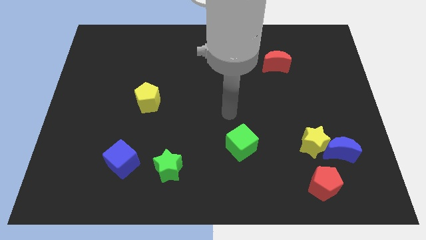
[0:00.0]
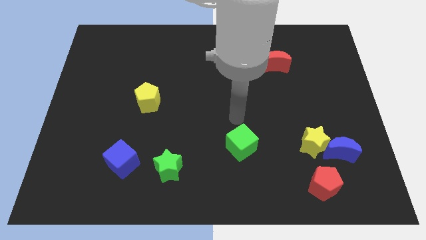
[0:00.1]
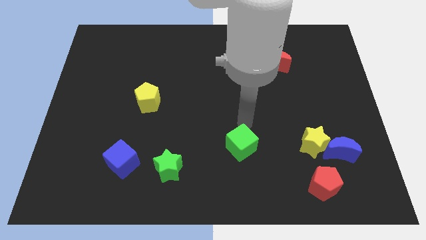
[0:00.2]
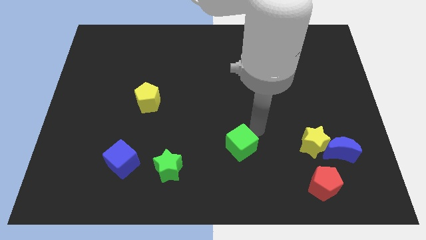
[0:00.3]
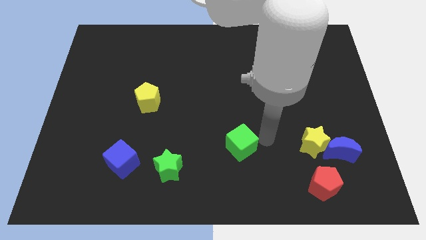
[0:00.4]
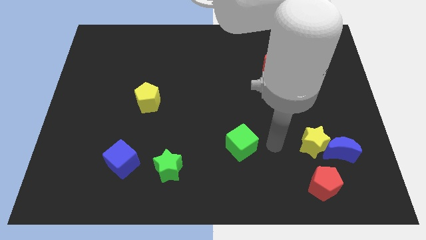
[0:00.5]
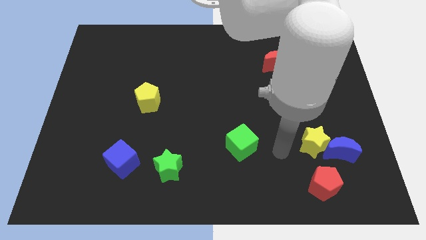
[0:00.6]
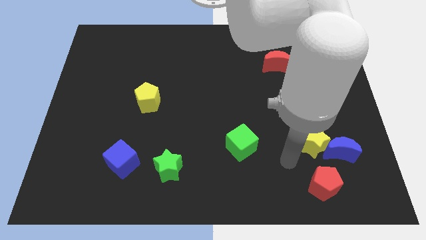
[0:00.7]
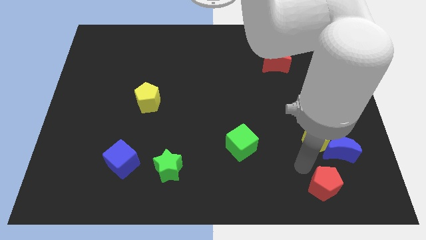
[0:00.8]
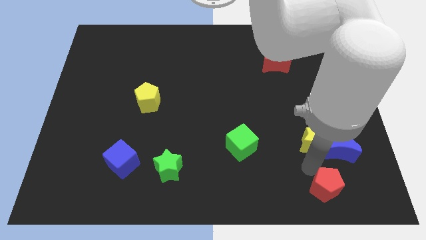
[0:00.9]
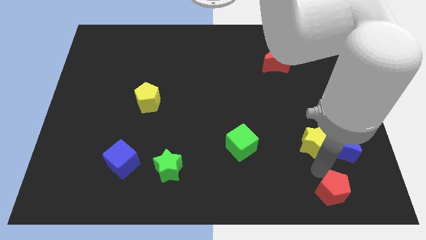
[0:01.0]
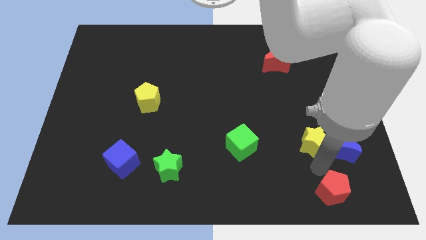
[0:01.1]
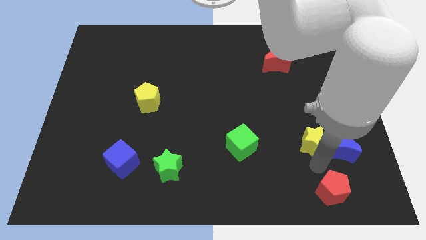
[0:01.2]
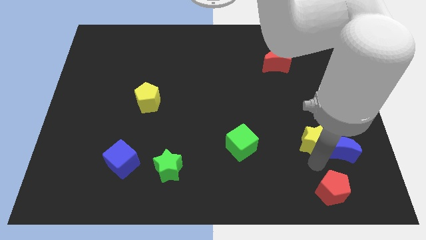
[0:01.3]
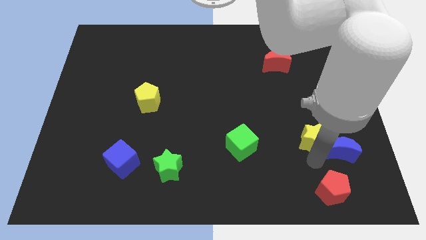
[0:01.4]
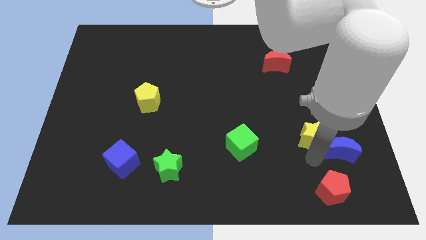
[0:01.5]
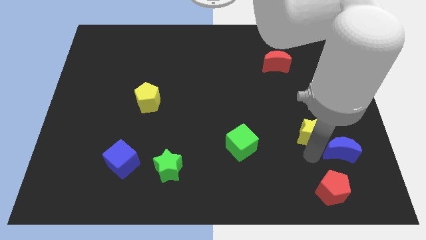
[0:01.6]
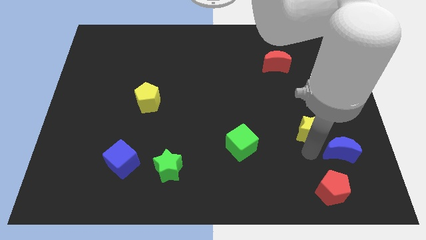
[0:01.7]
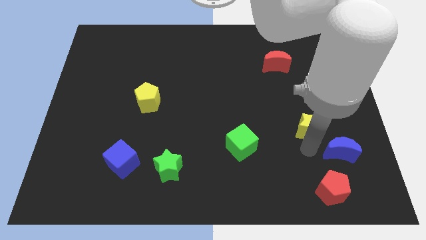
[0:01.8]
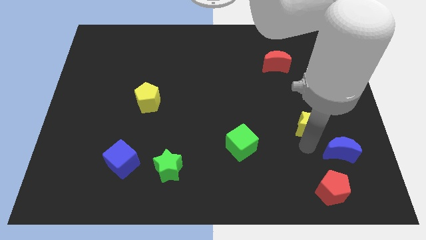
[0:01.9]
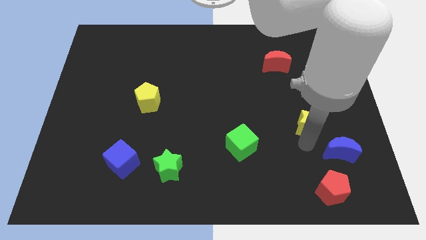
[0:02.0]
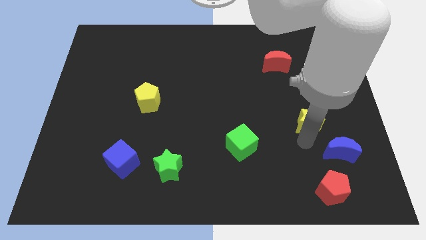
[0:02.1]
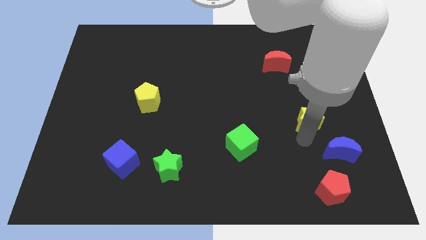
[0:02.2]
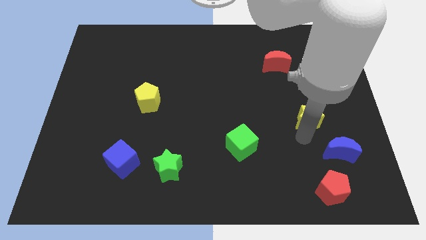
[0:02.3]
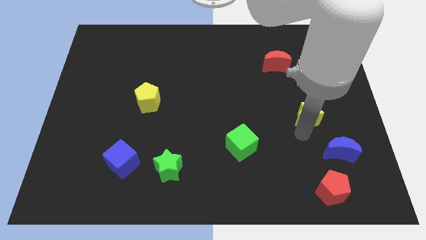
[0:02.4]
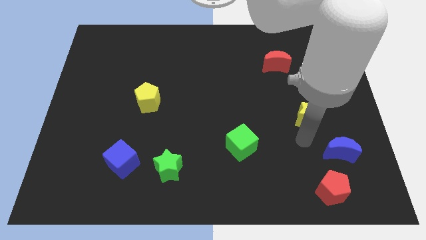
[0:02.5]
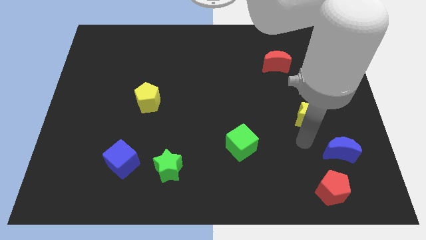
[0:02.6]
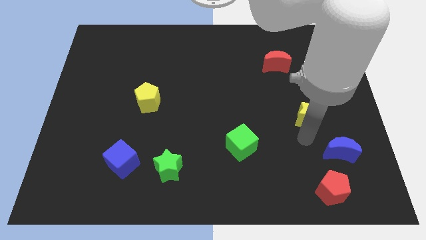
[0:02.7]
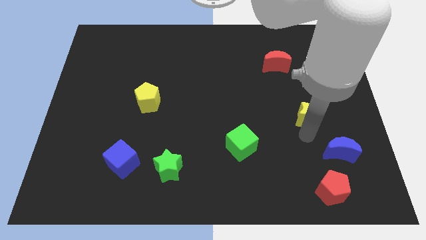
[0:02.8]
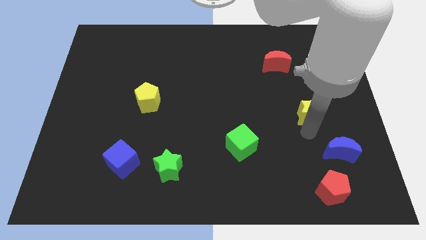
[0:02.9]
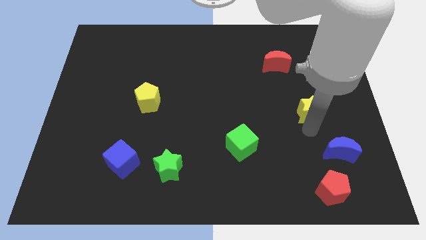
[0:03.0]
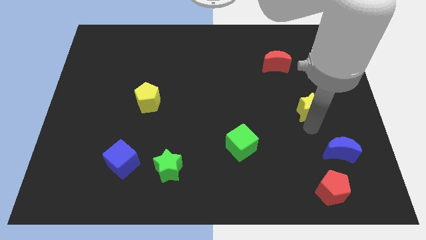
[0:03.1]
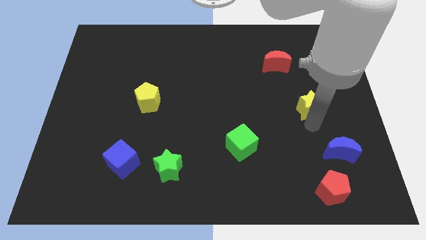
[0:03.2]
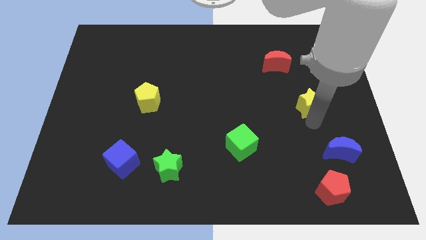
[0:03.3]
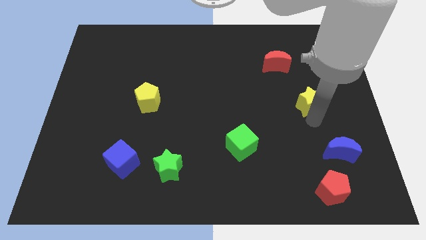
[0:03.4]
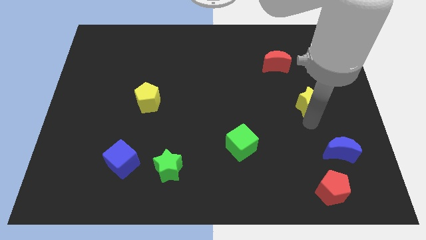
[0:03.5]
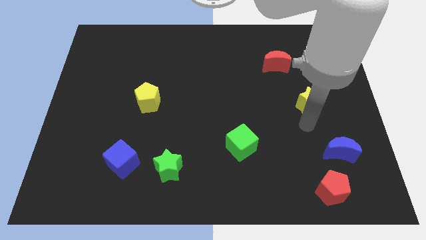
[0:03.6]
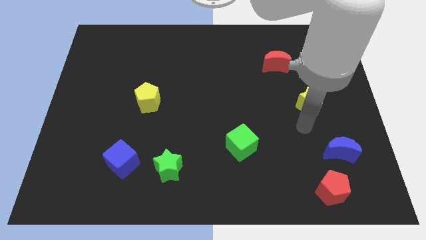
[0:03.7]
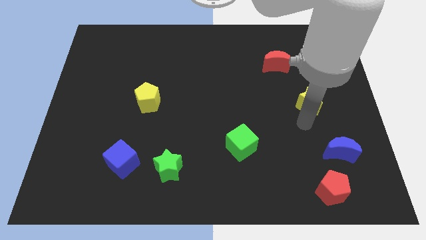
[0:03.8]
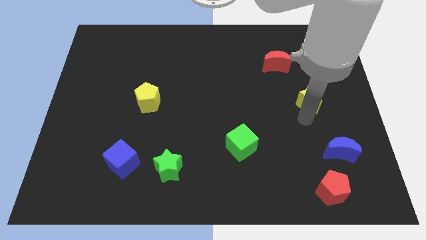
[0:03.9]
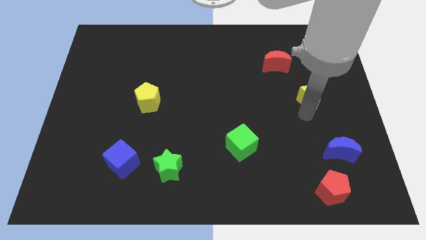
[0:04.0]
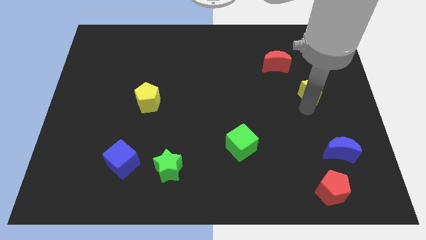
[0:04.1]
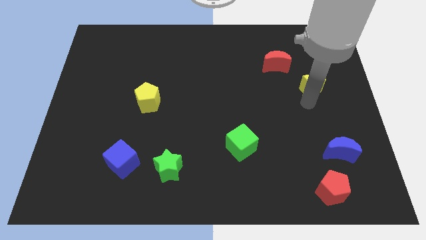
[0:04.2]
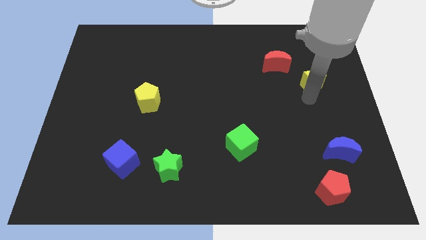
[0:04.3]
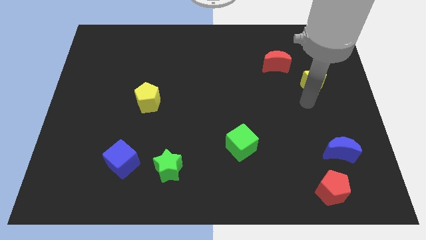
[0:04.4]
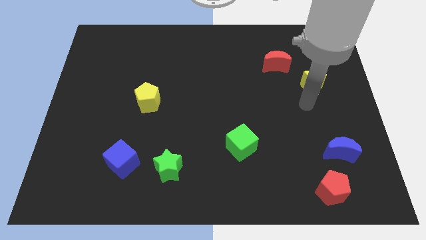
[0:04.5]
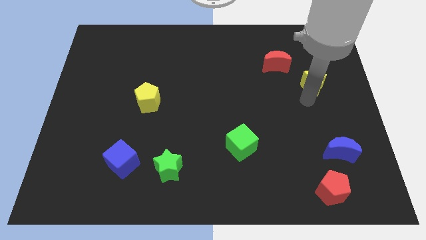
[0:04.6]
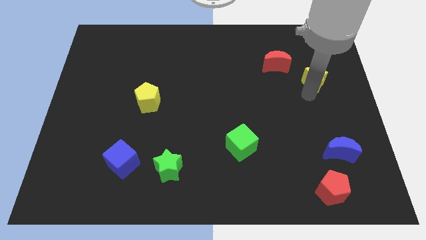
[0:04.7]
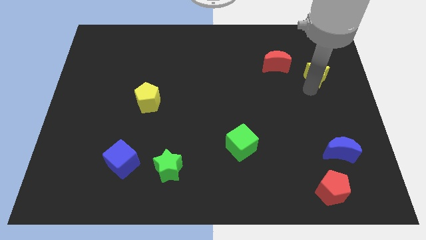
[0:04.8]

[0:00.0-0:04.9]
slide the yellow star to the right side of the red moon

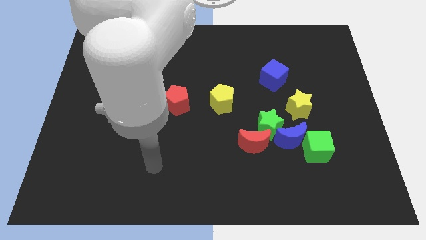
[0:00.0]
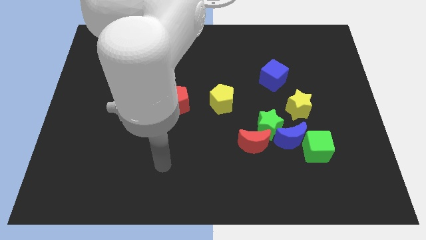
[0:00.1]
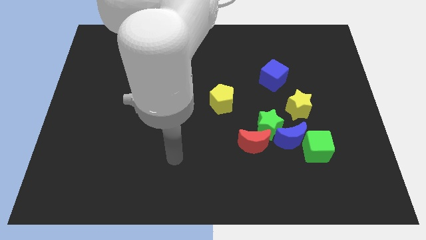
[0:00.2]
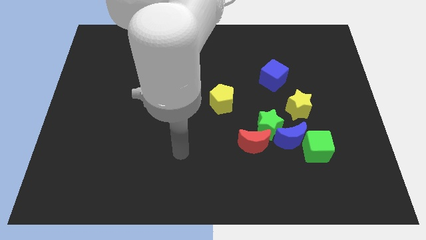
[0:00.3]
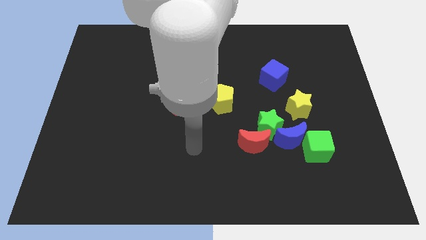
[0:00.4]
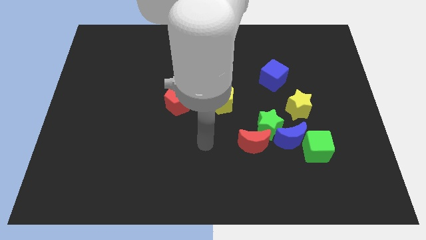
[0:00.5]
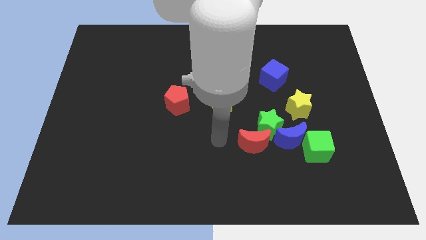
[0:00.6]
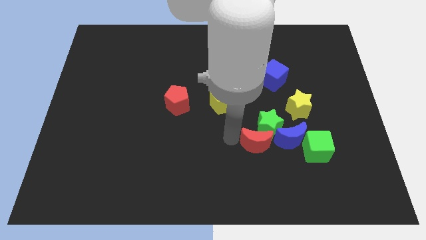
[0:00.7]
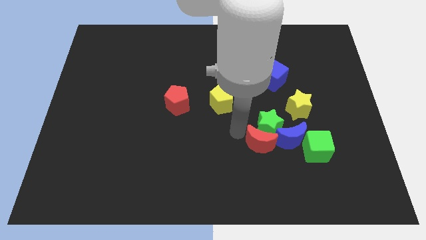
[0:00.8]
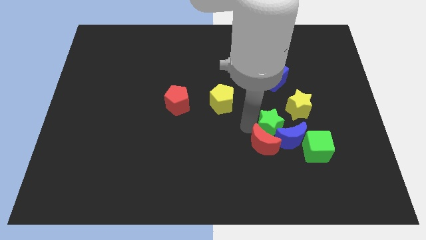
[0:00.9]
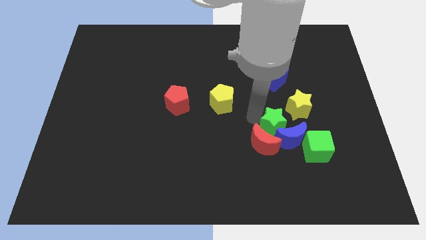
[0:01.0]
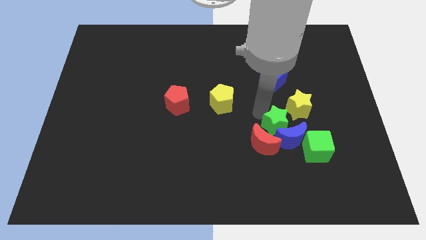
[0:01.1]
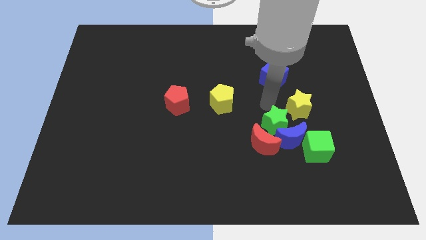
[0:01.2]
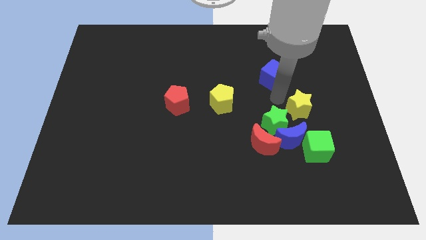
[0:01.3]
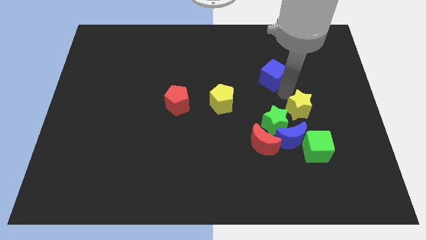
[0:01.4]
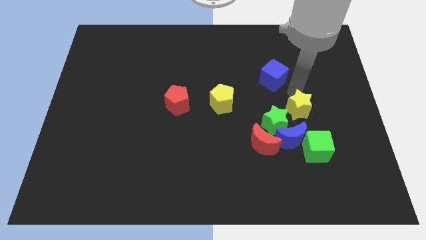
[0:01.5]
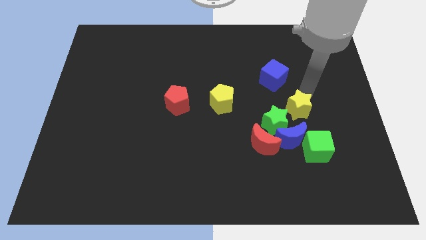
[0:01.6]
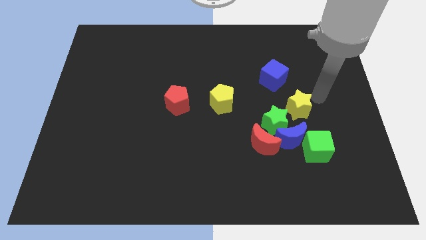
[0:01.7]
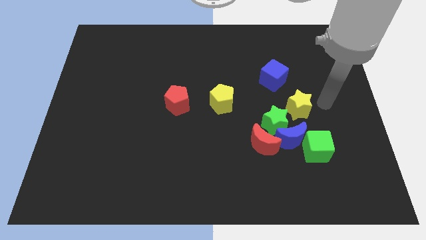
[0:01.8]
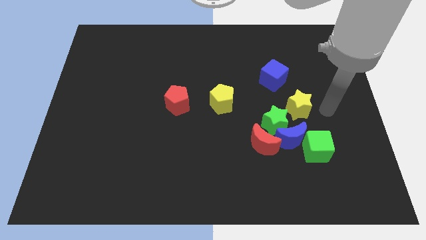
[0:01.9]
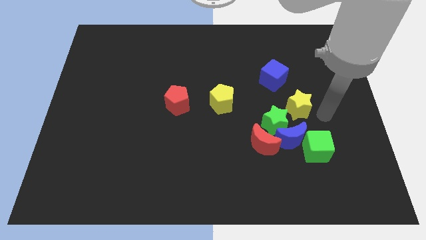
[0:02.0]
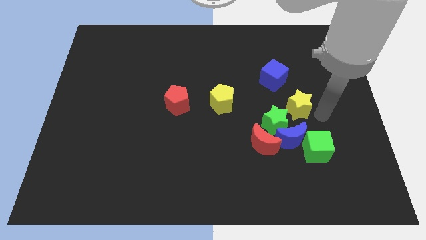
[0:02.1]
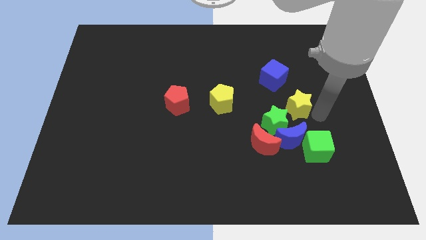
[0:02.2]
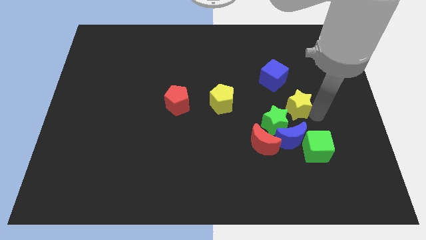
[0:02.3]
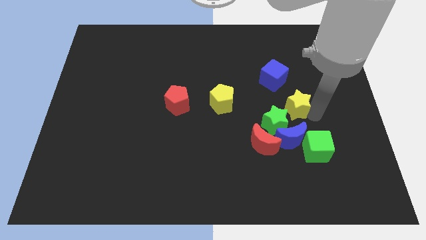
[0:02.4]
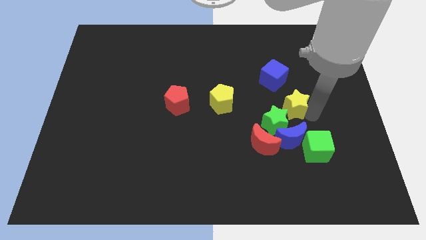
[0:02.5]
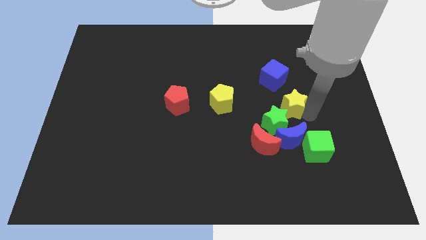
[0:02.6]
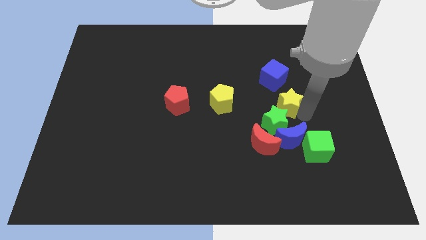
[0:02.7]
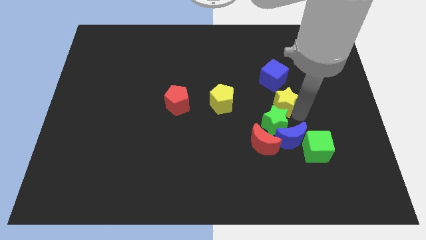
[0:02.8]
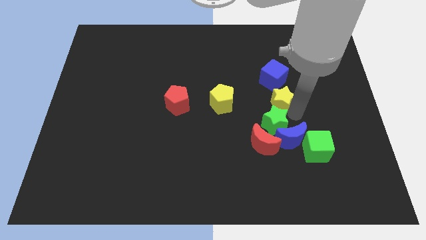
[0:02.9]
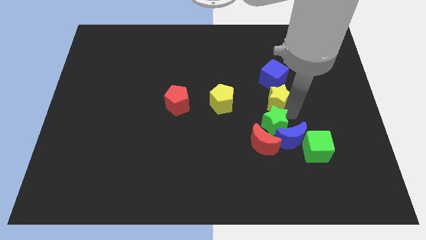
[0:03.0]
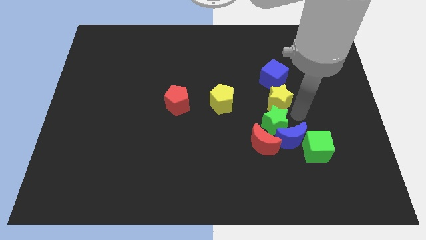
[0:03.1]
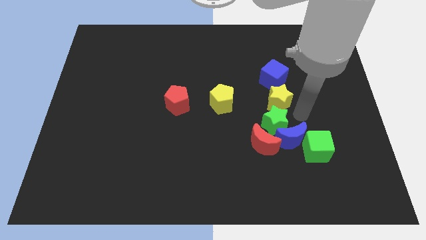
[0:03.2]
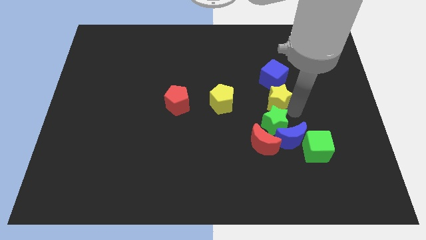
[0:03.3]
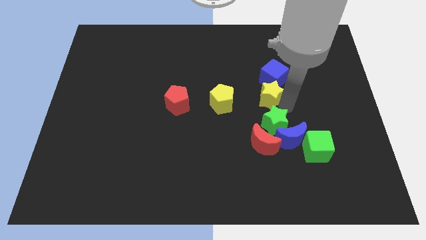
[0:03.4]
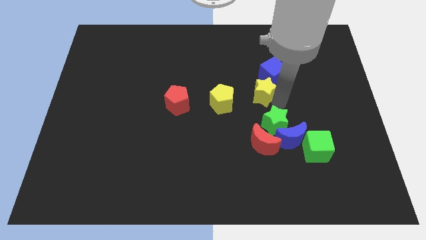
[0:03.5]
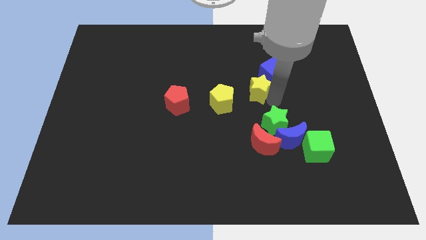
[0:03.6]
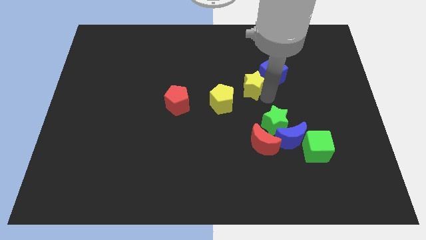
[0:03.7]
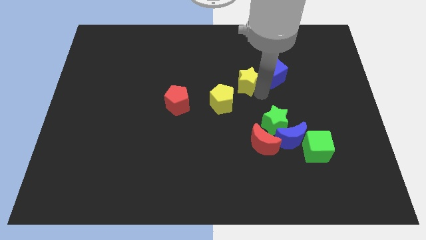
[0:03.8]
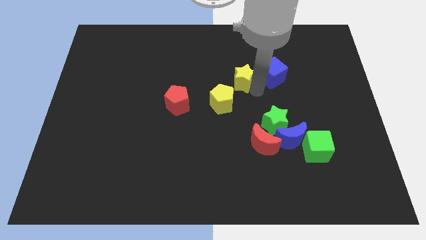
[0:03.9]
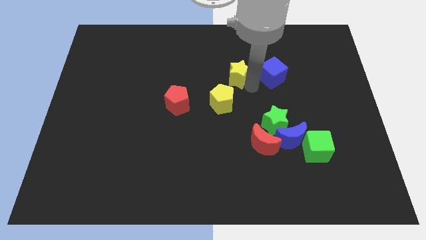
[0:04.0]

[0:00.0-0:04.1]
move the yellow star above the yellow pentagon
